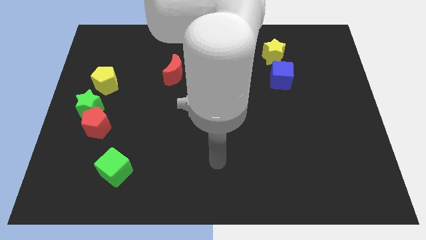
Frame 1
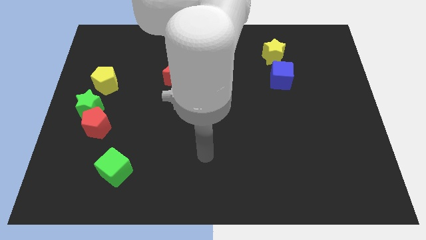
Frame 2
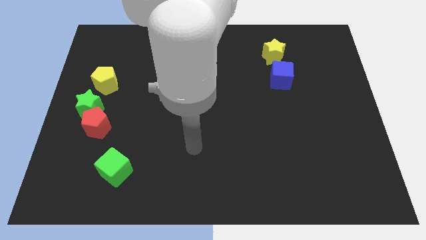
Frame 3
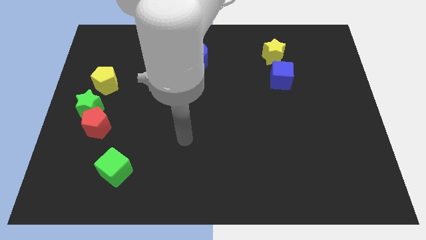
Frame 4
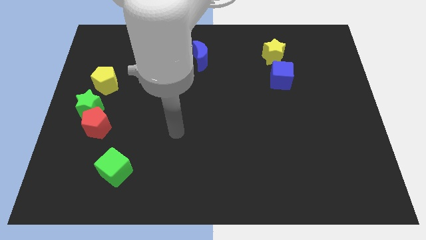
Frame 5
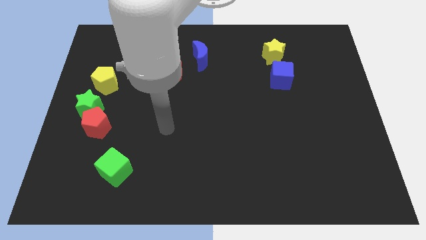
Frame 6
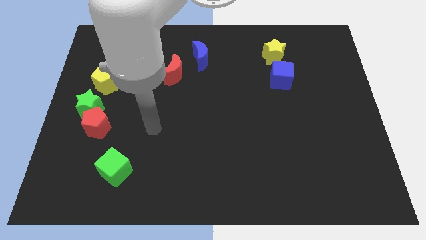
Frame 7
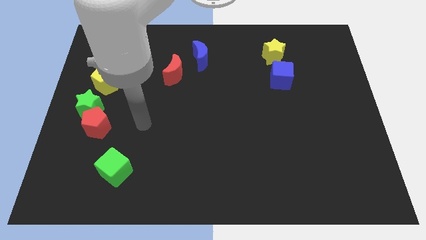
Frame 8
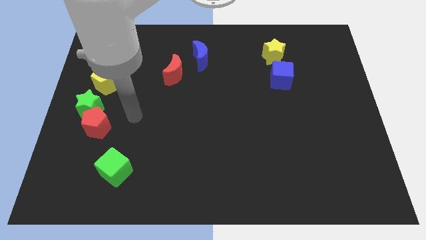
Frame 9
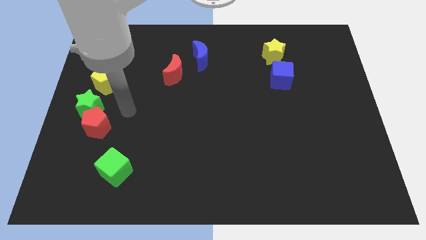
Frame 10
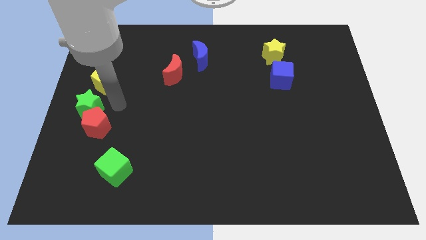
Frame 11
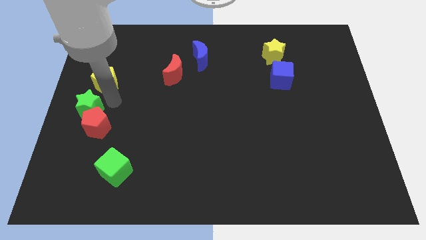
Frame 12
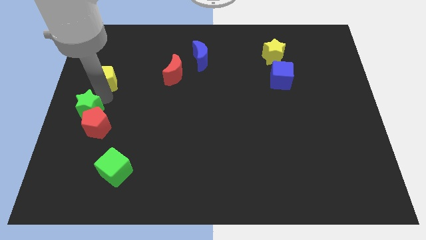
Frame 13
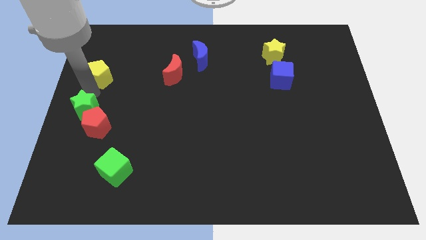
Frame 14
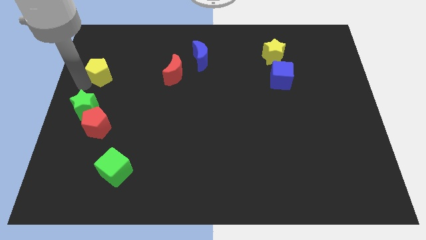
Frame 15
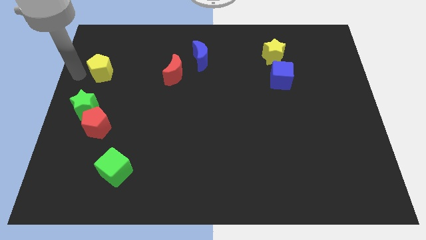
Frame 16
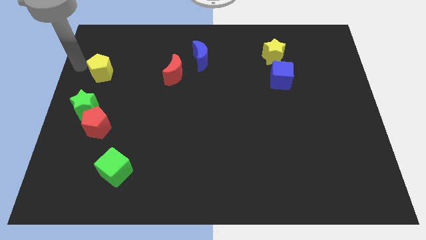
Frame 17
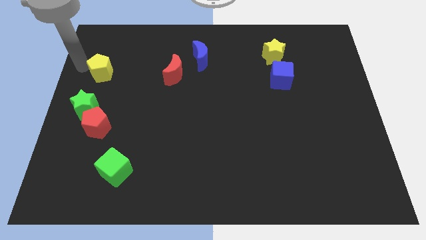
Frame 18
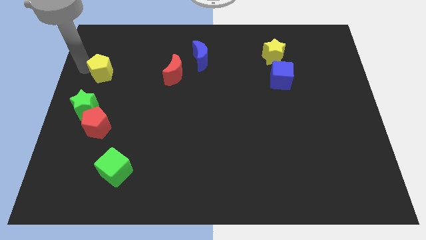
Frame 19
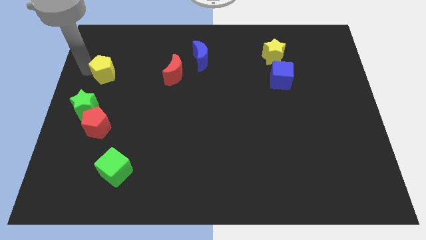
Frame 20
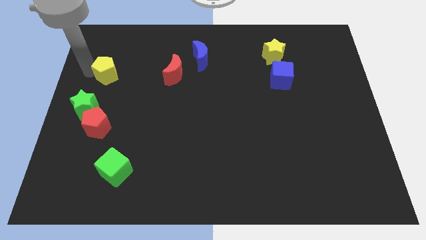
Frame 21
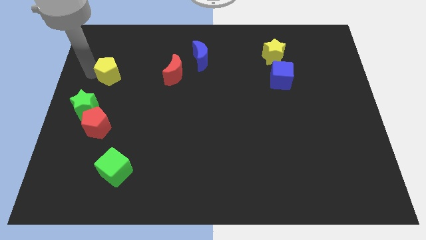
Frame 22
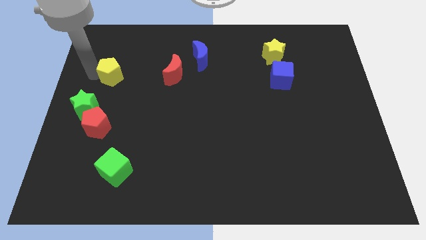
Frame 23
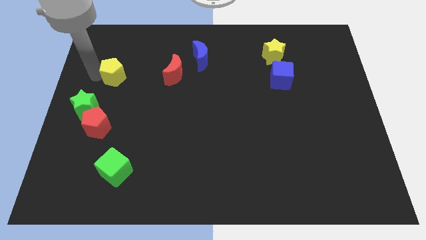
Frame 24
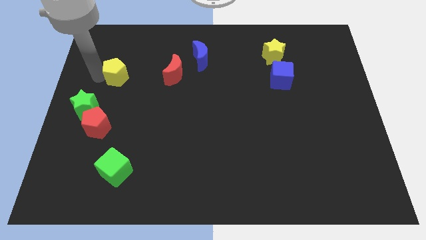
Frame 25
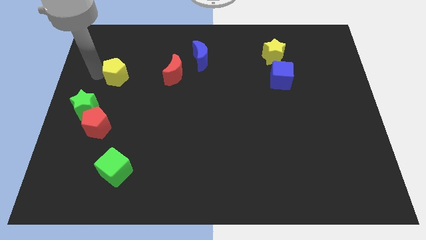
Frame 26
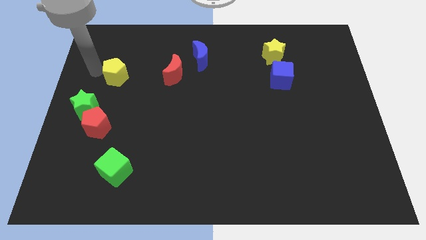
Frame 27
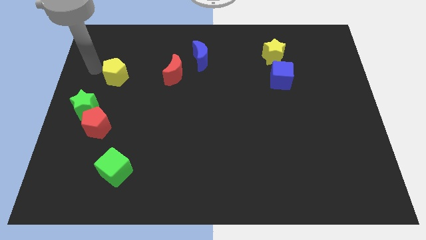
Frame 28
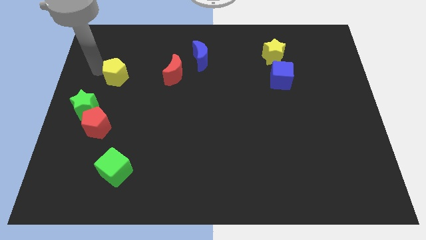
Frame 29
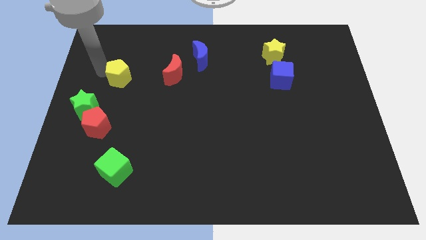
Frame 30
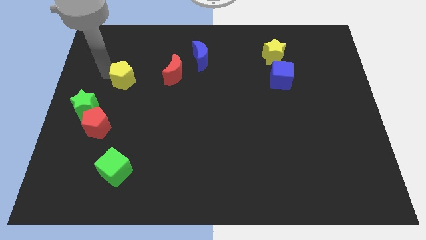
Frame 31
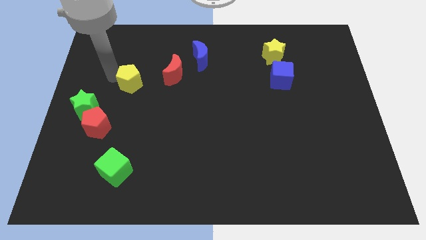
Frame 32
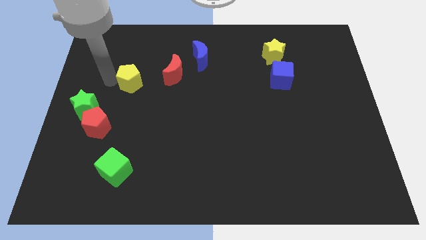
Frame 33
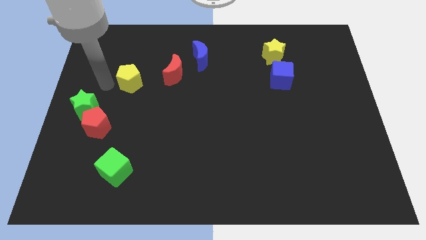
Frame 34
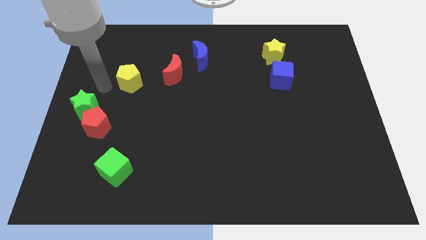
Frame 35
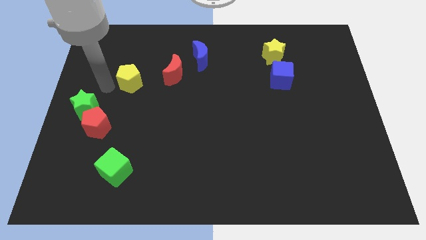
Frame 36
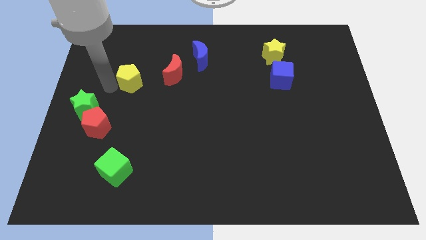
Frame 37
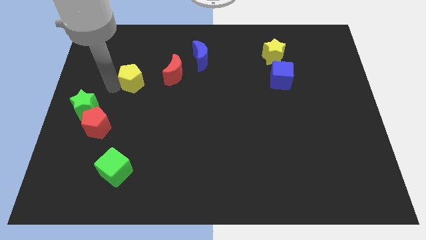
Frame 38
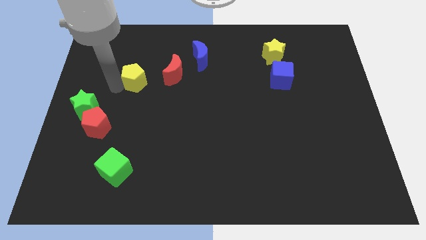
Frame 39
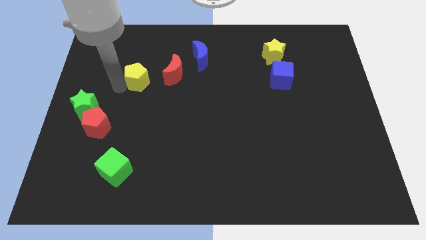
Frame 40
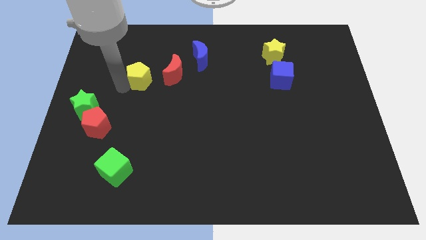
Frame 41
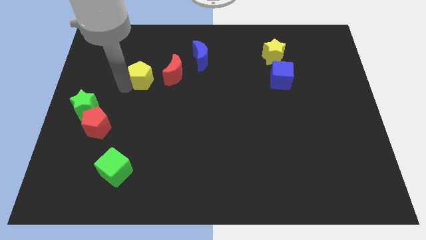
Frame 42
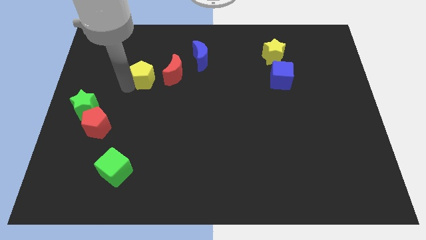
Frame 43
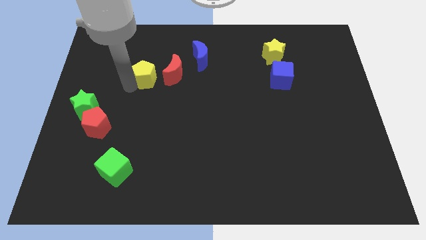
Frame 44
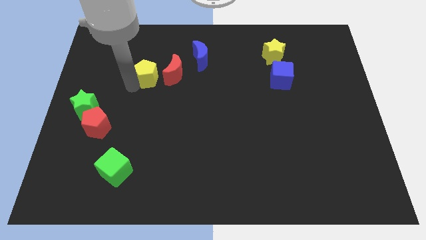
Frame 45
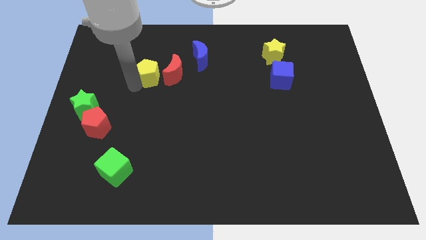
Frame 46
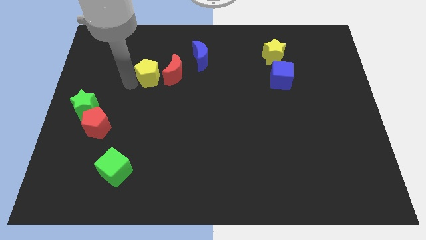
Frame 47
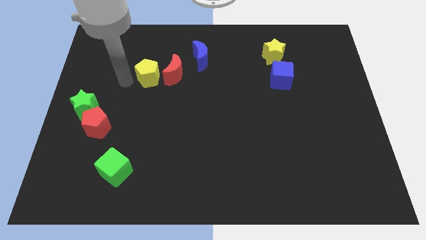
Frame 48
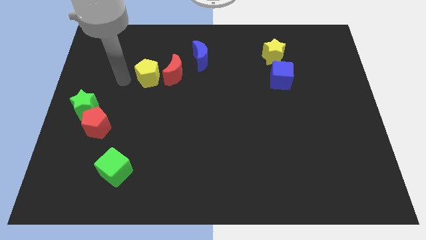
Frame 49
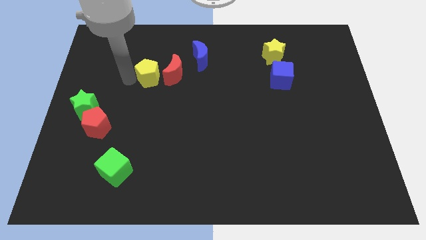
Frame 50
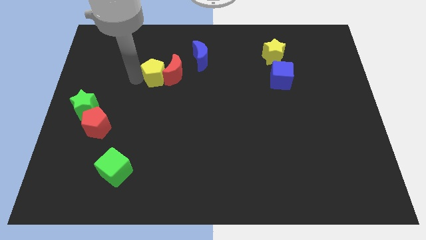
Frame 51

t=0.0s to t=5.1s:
slide the yellow pentagon close to the red moon

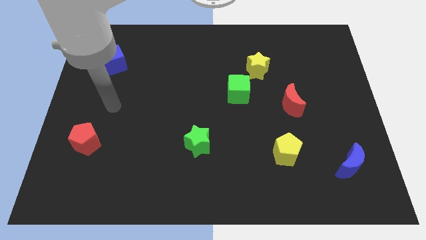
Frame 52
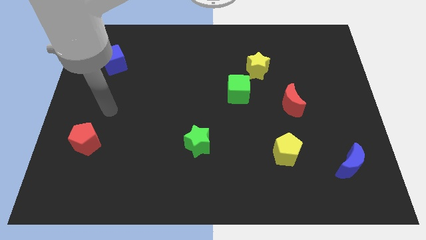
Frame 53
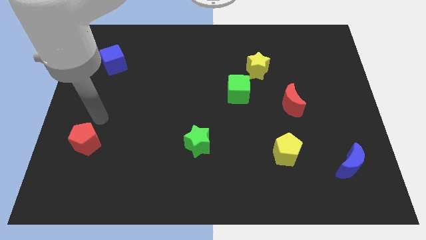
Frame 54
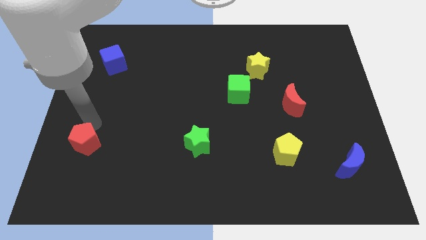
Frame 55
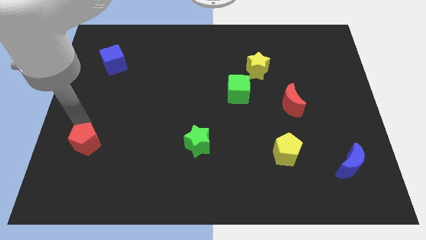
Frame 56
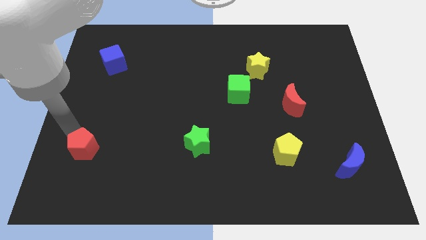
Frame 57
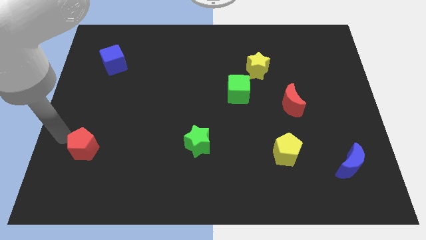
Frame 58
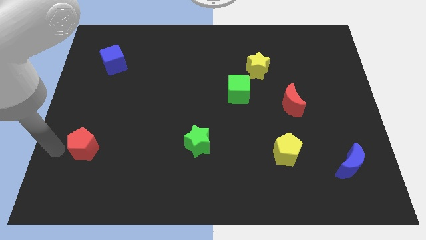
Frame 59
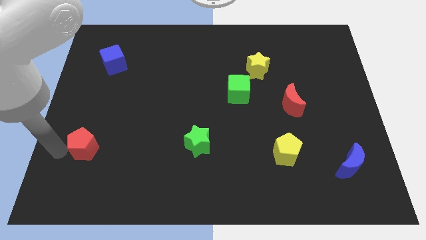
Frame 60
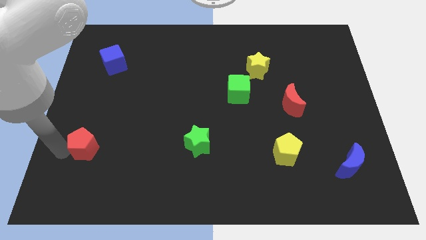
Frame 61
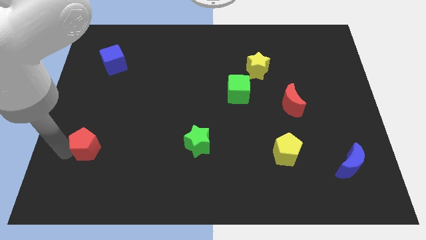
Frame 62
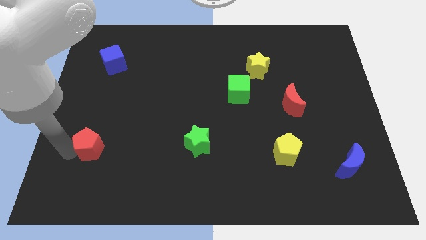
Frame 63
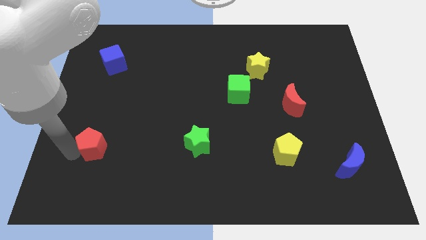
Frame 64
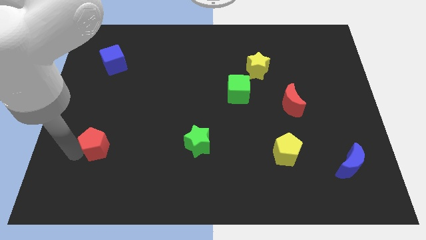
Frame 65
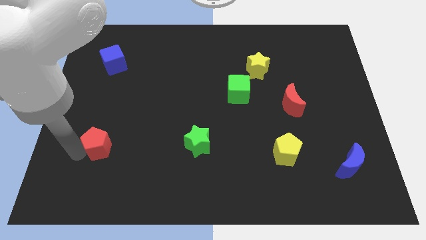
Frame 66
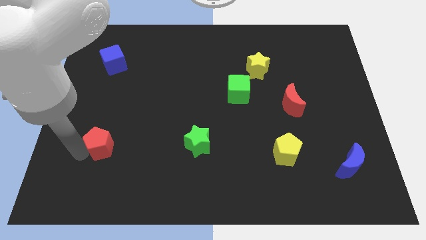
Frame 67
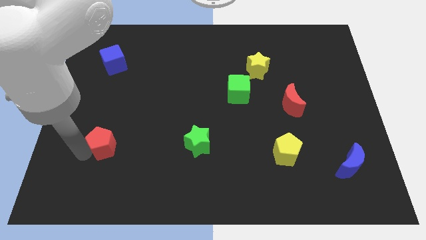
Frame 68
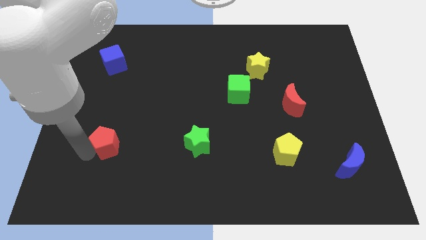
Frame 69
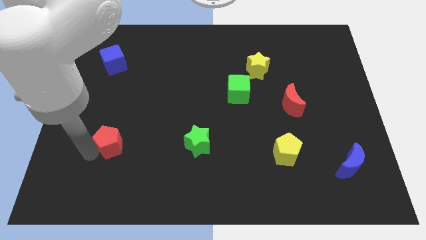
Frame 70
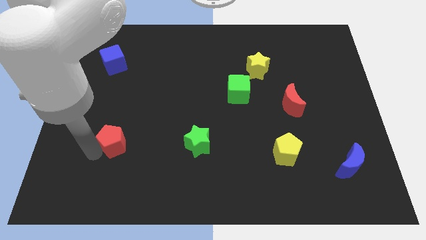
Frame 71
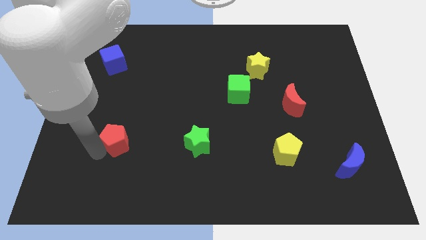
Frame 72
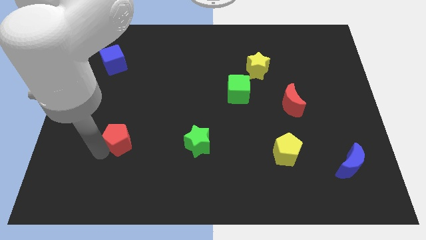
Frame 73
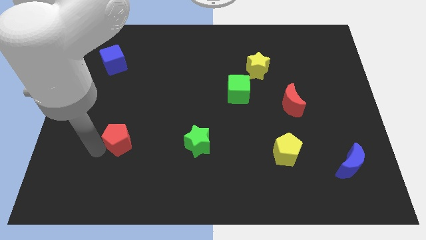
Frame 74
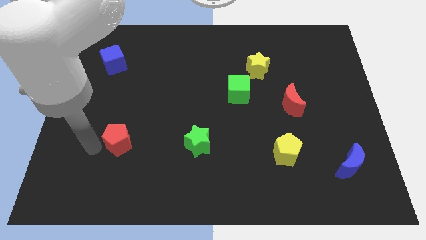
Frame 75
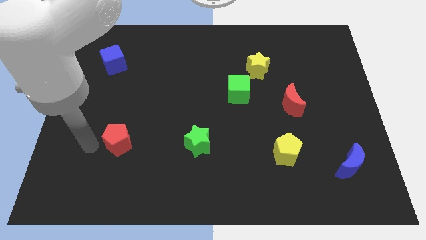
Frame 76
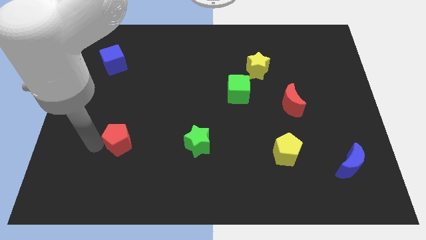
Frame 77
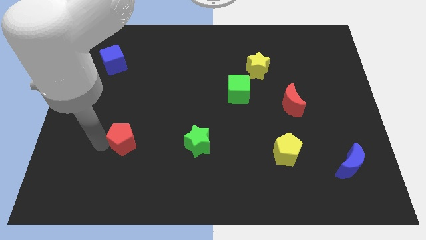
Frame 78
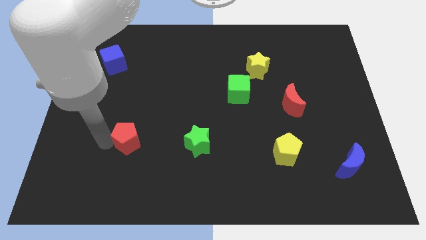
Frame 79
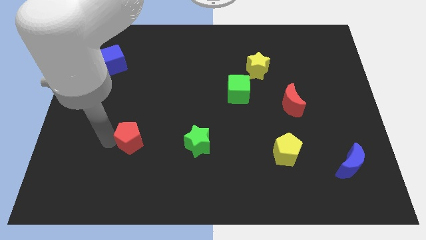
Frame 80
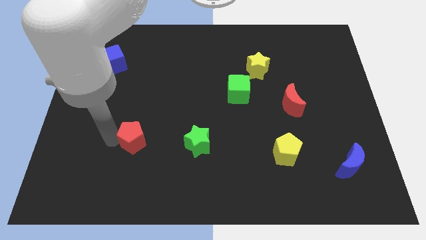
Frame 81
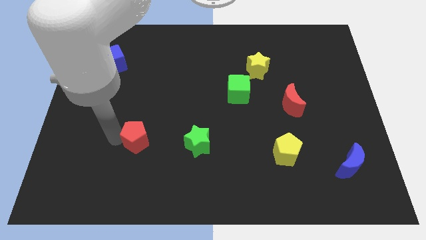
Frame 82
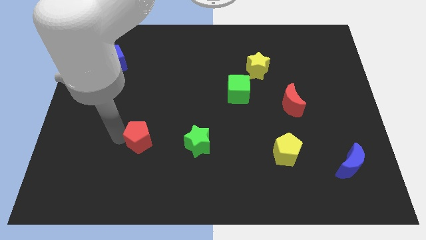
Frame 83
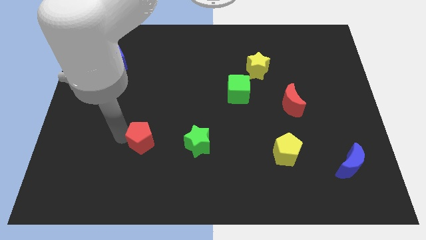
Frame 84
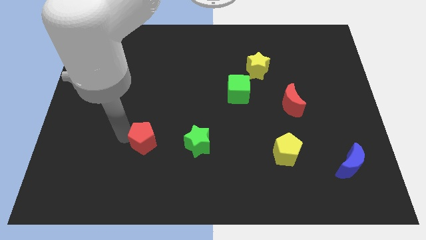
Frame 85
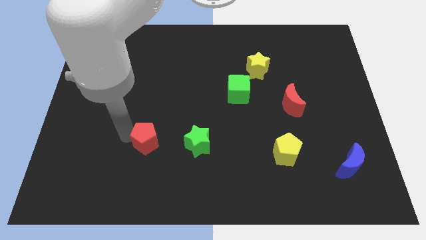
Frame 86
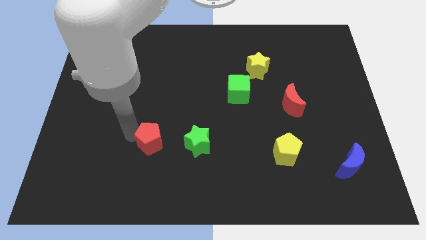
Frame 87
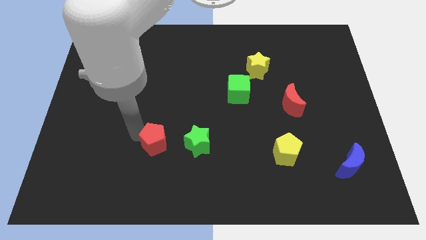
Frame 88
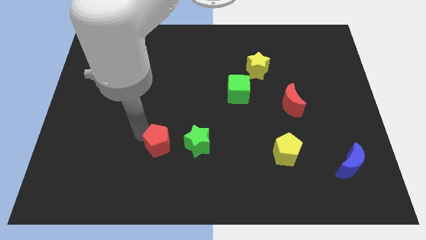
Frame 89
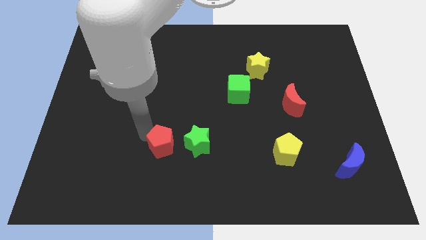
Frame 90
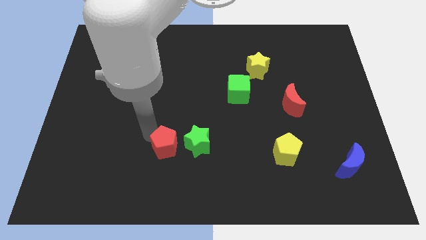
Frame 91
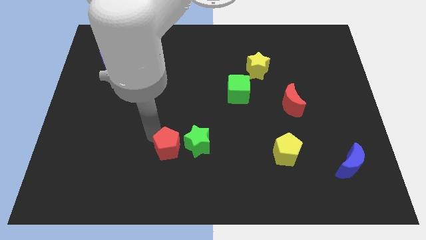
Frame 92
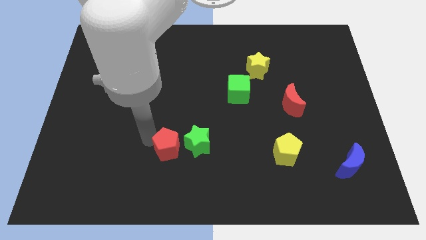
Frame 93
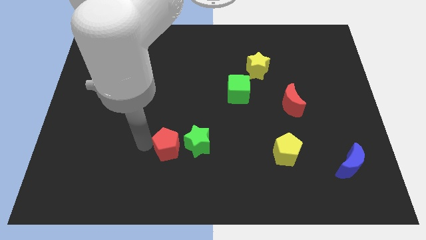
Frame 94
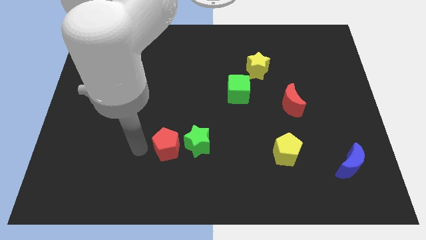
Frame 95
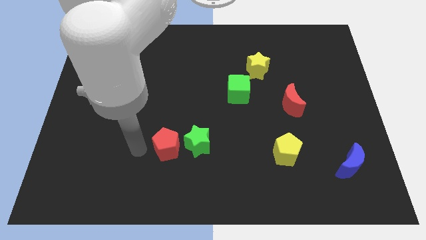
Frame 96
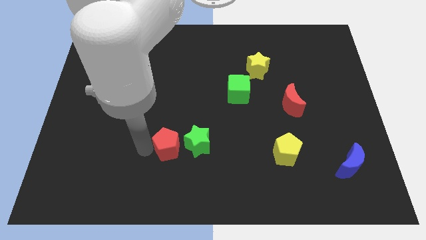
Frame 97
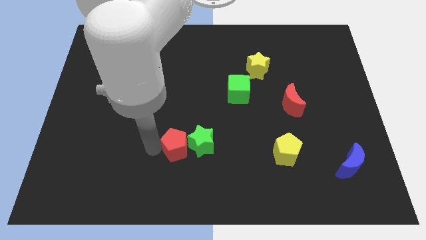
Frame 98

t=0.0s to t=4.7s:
slide the red pentagon to the green star
